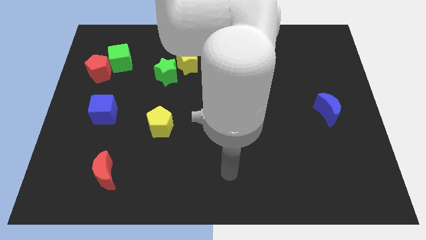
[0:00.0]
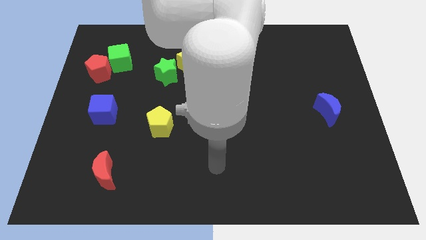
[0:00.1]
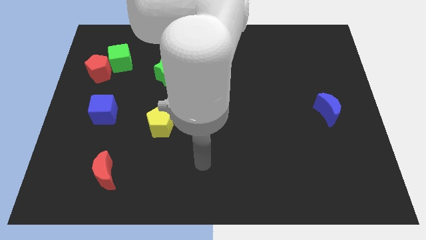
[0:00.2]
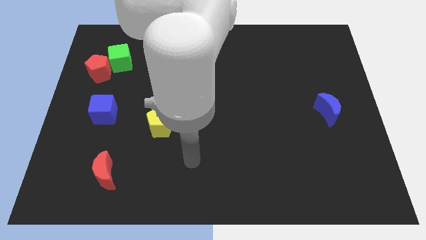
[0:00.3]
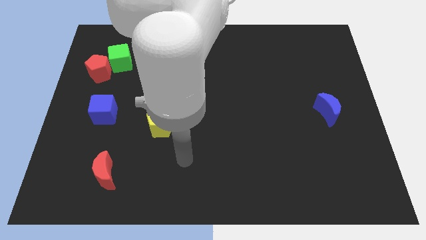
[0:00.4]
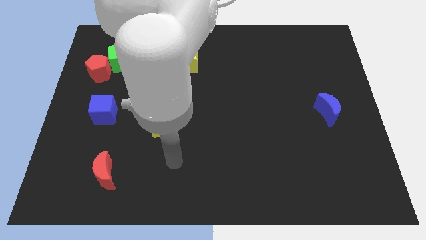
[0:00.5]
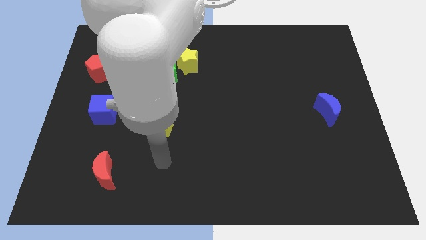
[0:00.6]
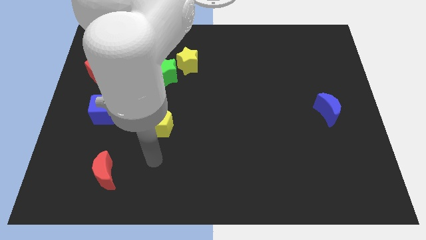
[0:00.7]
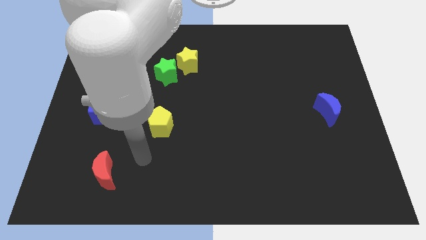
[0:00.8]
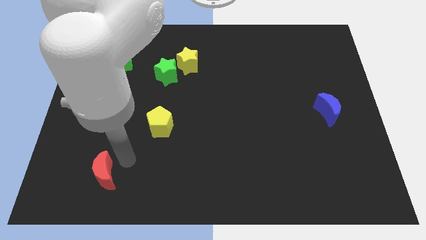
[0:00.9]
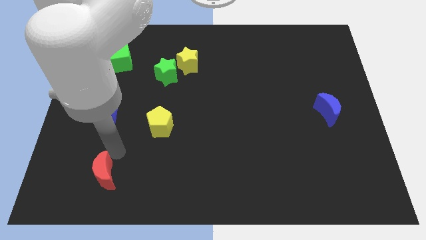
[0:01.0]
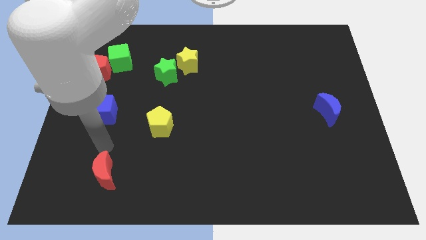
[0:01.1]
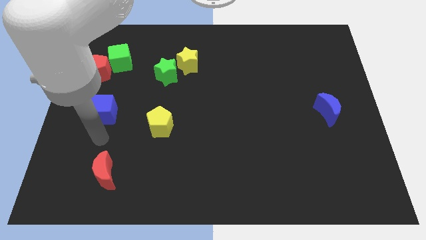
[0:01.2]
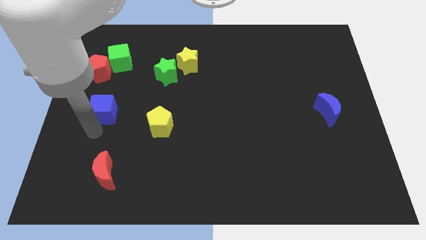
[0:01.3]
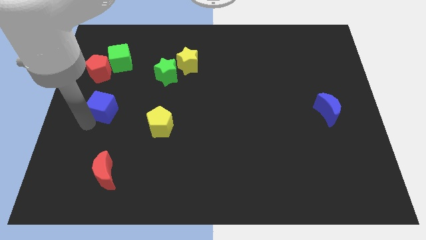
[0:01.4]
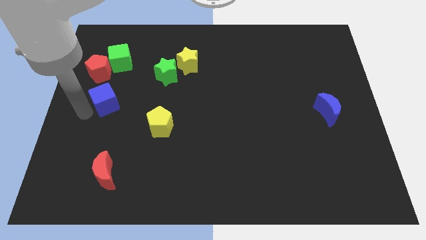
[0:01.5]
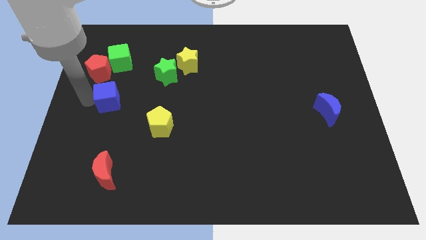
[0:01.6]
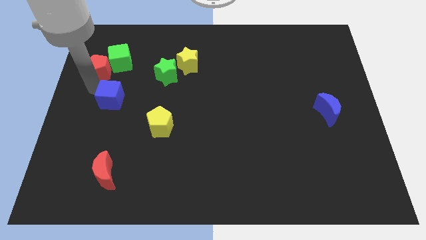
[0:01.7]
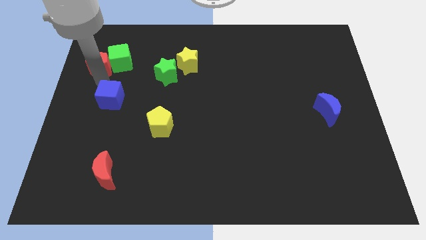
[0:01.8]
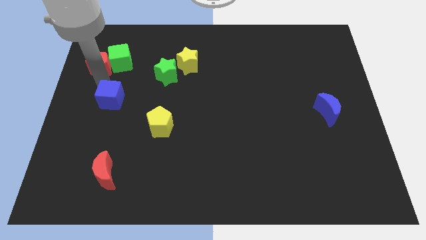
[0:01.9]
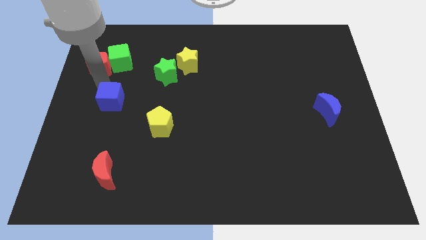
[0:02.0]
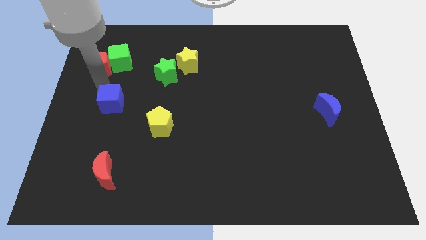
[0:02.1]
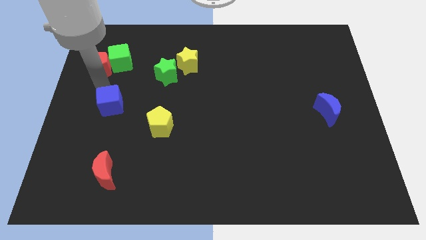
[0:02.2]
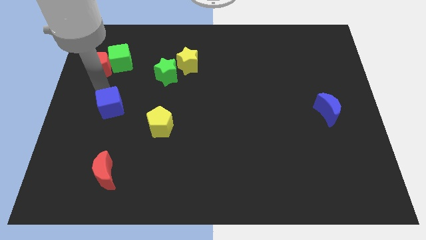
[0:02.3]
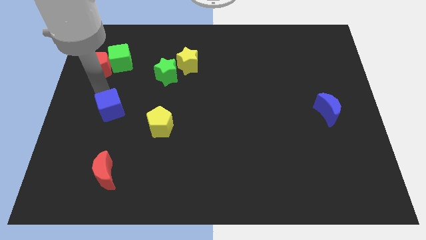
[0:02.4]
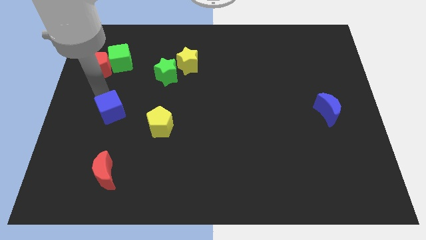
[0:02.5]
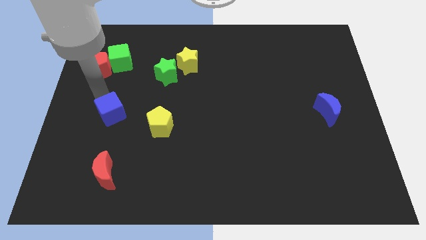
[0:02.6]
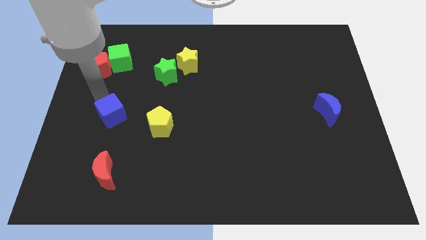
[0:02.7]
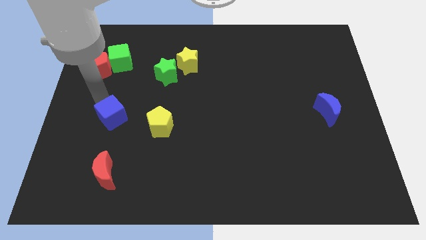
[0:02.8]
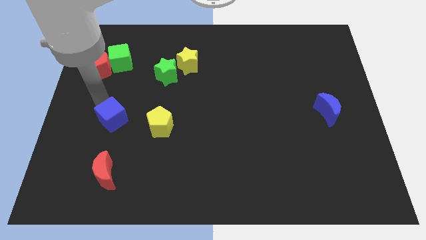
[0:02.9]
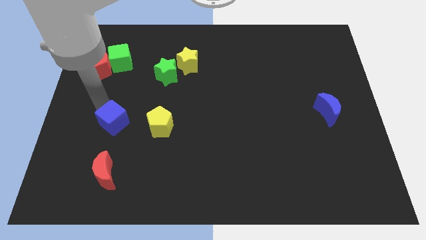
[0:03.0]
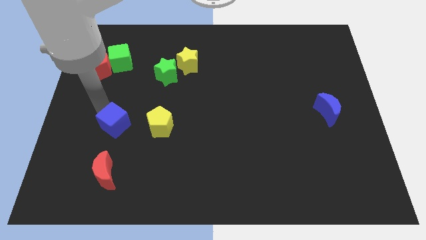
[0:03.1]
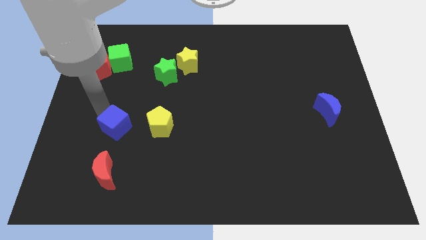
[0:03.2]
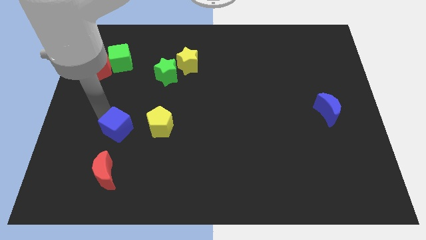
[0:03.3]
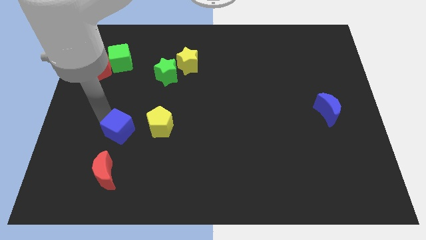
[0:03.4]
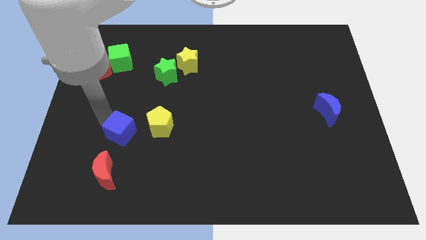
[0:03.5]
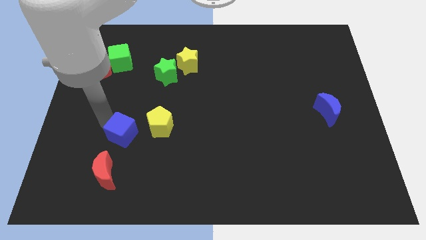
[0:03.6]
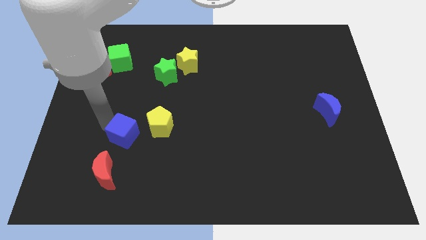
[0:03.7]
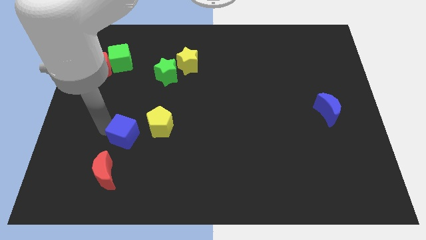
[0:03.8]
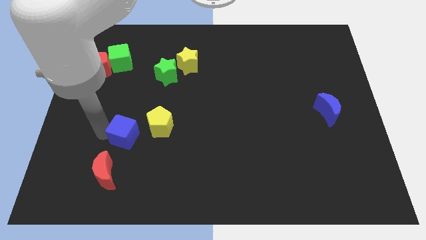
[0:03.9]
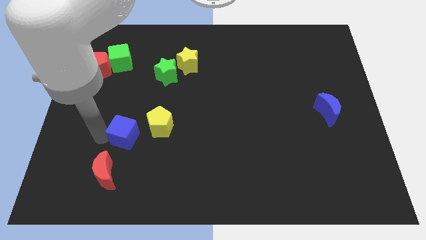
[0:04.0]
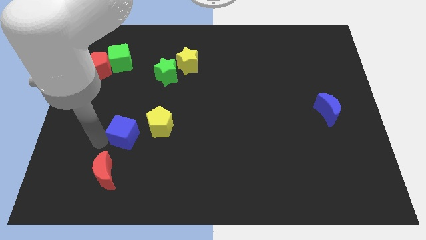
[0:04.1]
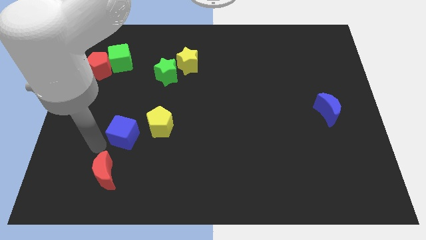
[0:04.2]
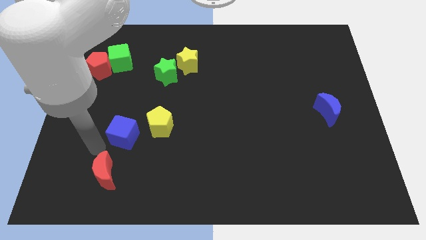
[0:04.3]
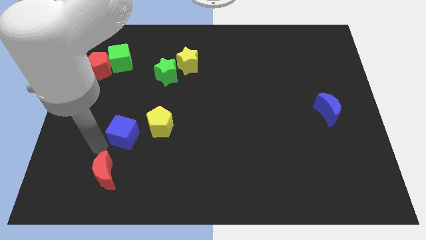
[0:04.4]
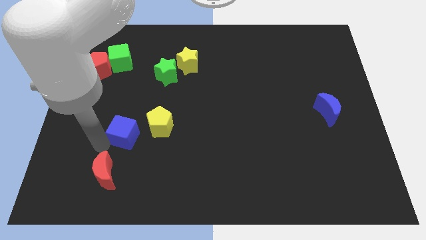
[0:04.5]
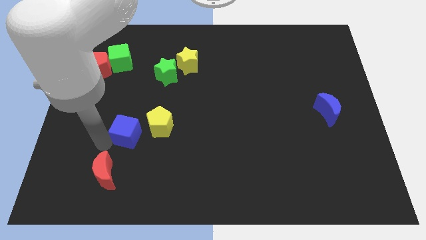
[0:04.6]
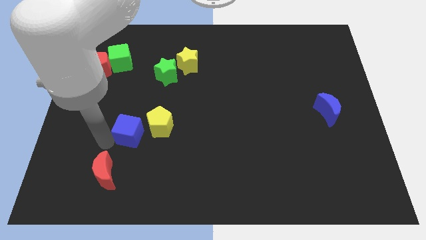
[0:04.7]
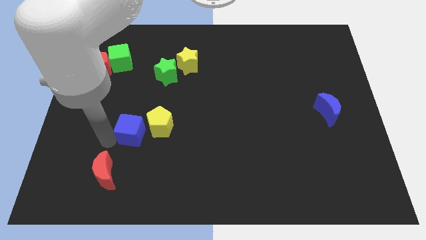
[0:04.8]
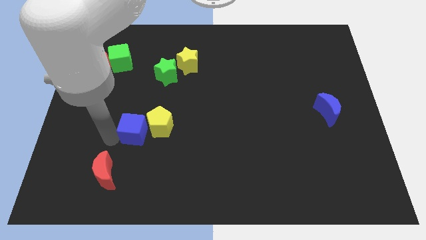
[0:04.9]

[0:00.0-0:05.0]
push the blue cube next to the yellow pentagon

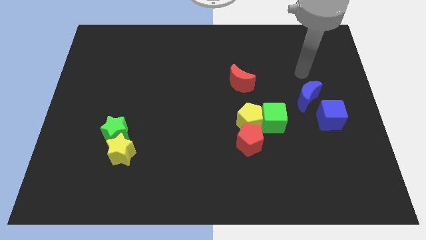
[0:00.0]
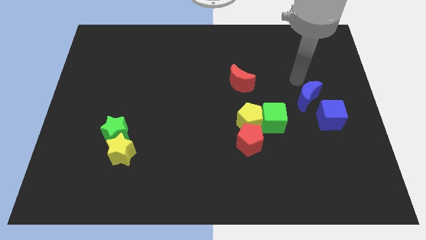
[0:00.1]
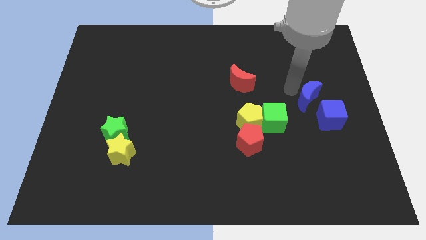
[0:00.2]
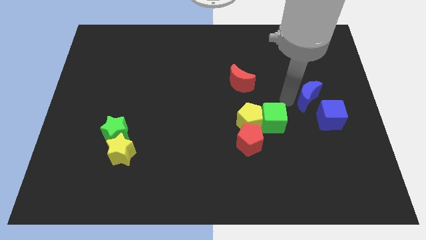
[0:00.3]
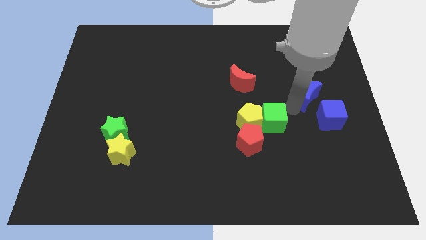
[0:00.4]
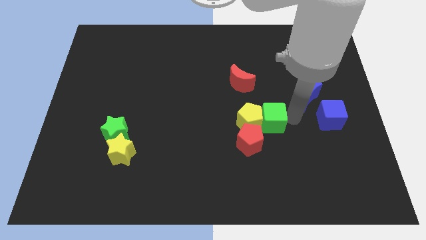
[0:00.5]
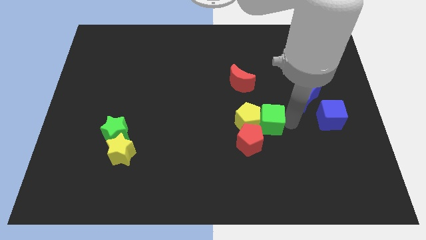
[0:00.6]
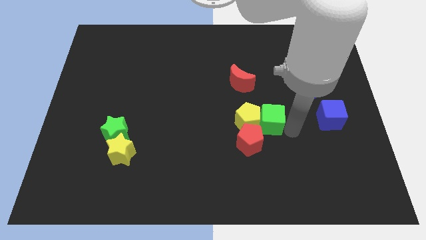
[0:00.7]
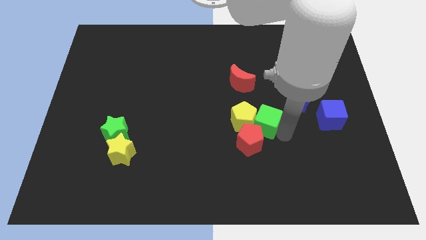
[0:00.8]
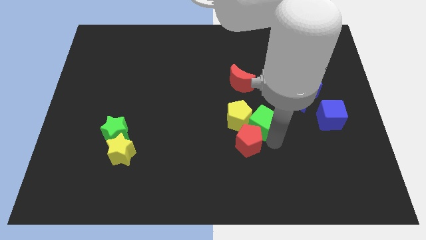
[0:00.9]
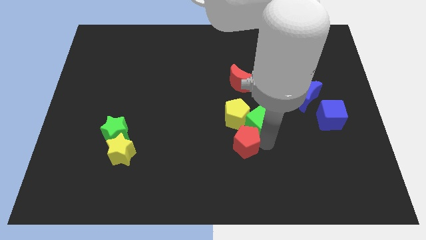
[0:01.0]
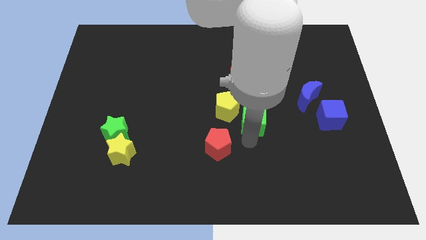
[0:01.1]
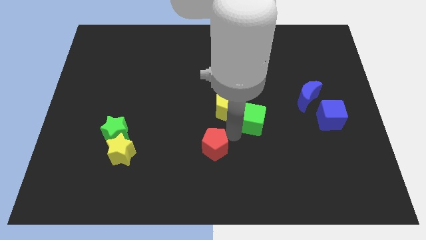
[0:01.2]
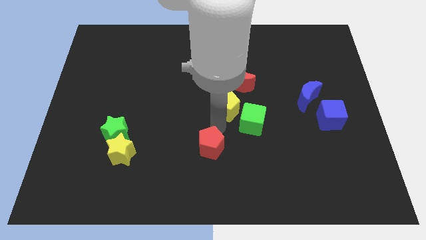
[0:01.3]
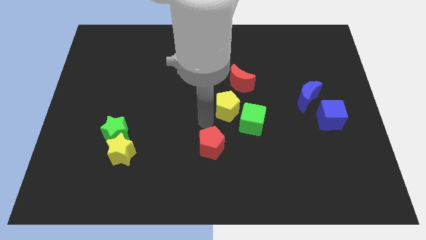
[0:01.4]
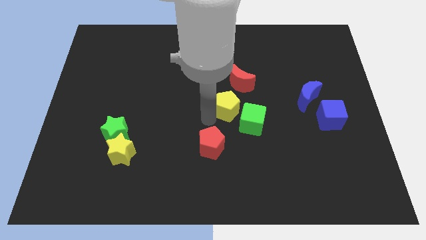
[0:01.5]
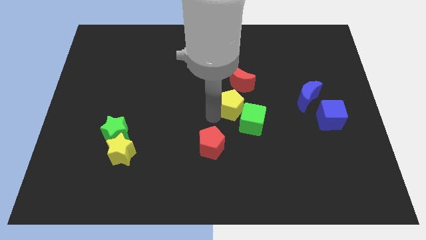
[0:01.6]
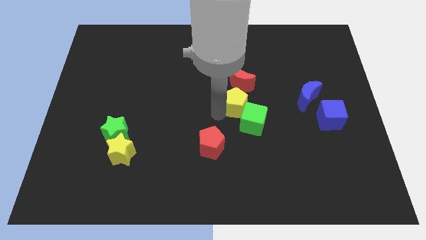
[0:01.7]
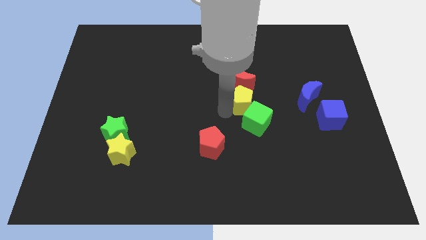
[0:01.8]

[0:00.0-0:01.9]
slide the yellow pentagon close to the red moon

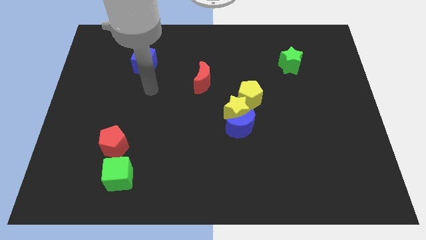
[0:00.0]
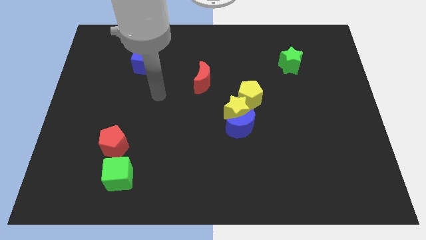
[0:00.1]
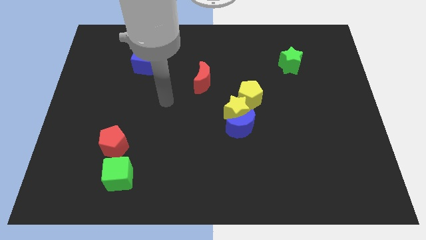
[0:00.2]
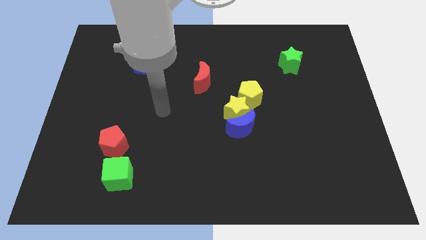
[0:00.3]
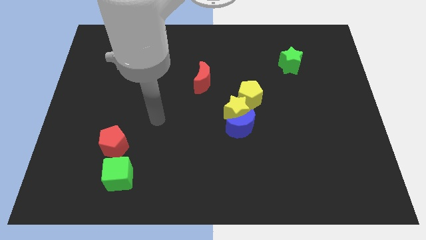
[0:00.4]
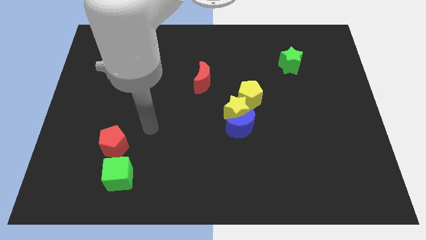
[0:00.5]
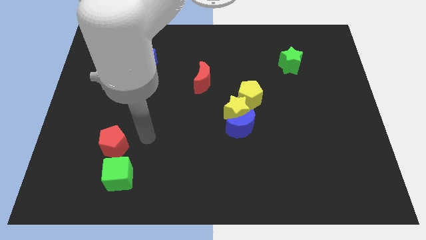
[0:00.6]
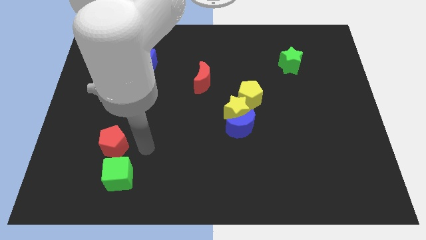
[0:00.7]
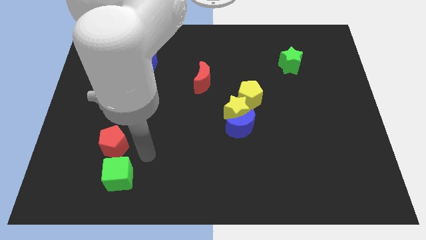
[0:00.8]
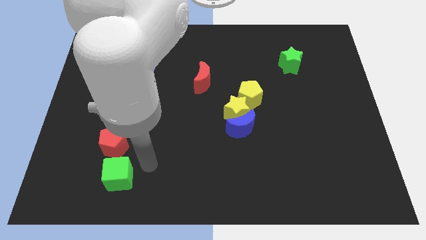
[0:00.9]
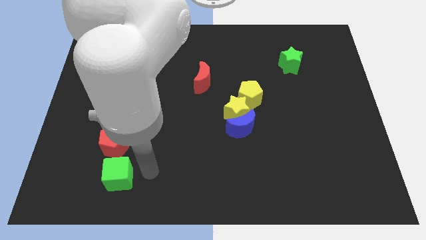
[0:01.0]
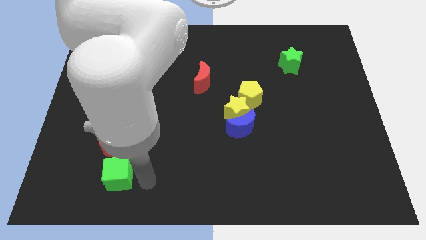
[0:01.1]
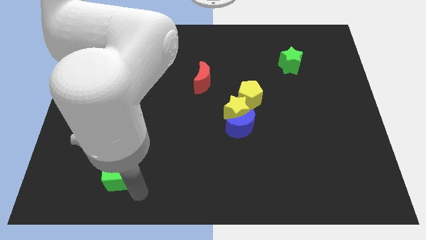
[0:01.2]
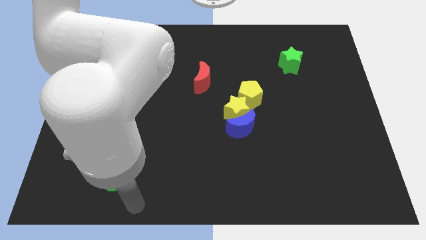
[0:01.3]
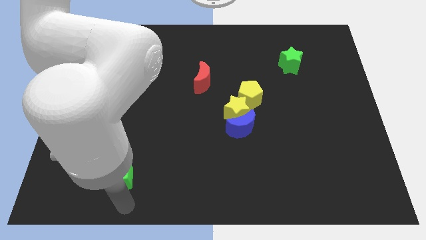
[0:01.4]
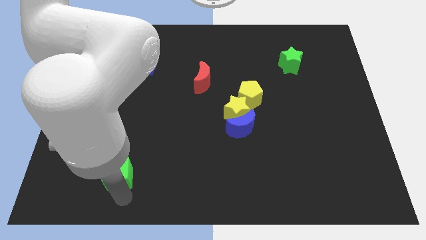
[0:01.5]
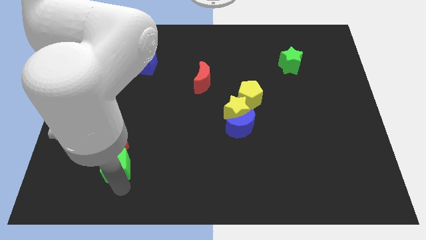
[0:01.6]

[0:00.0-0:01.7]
put the green cube close to the red pentagon
